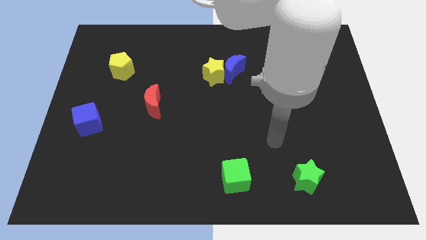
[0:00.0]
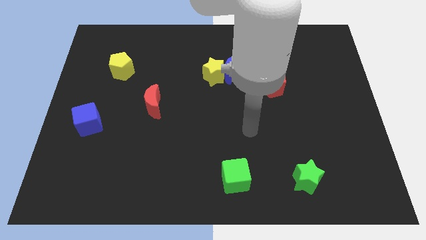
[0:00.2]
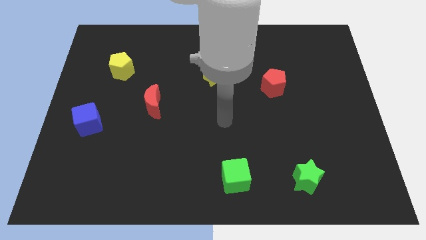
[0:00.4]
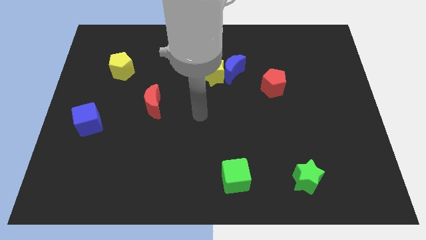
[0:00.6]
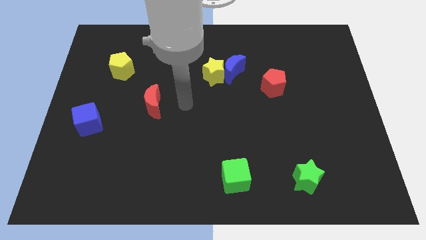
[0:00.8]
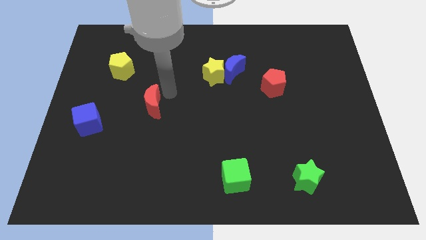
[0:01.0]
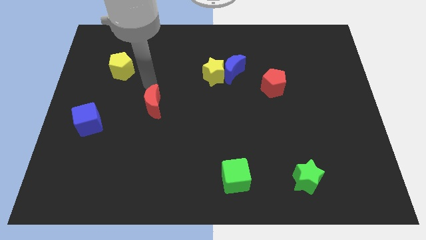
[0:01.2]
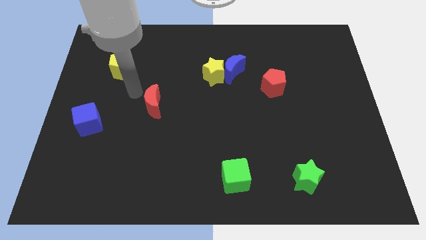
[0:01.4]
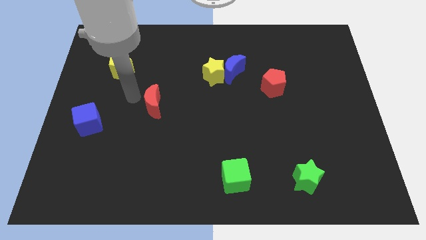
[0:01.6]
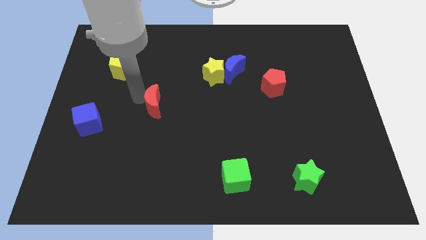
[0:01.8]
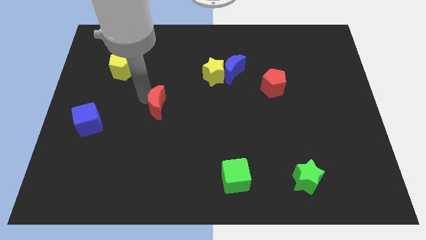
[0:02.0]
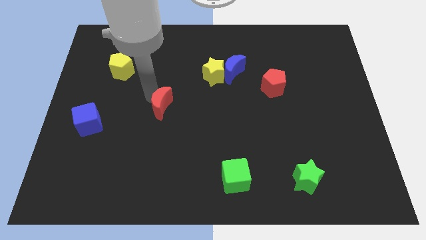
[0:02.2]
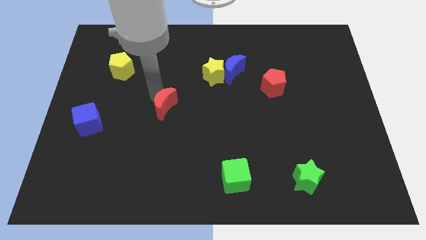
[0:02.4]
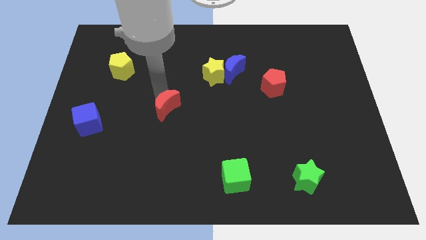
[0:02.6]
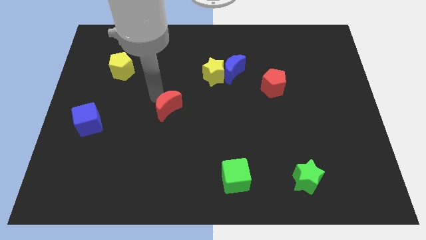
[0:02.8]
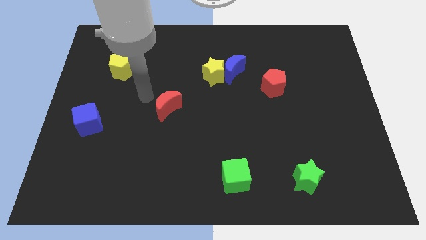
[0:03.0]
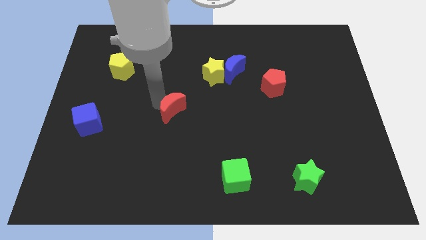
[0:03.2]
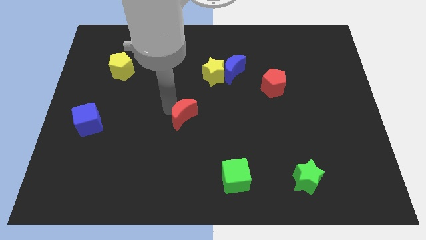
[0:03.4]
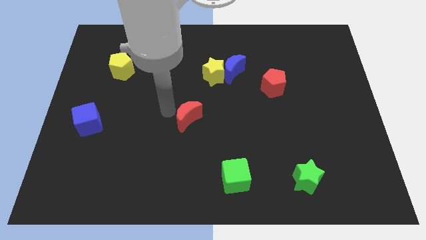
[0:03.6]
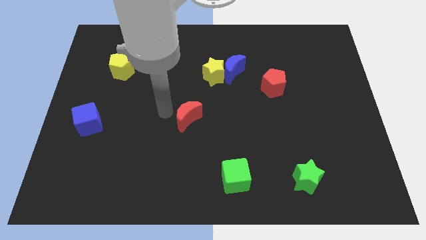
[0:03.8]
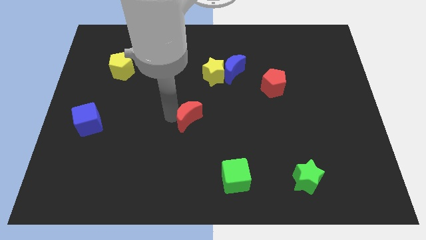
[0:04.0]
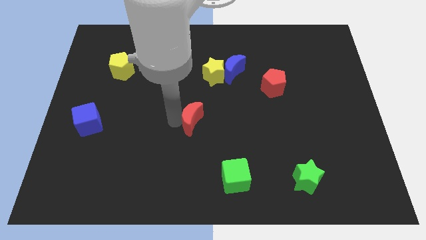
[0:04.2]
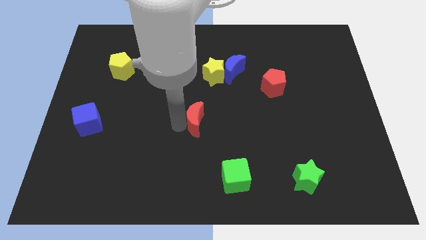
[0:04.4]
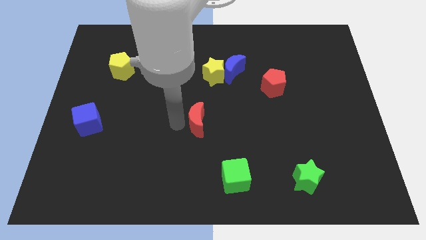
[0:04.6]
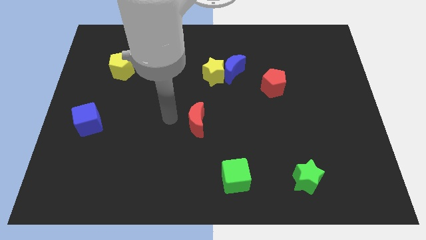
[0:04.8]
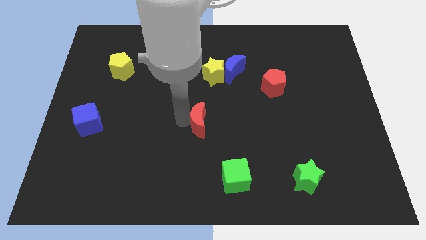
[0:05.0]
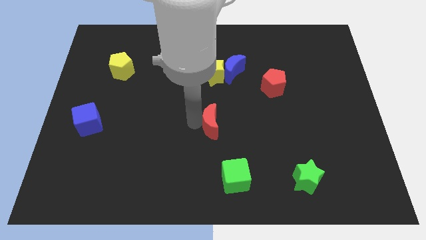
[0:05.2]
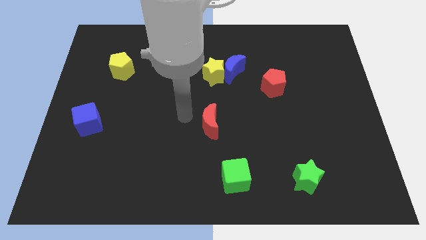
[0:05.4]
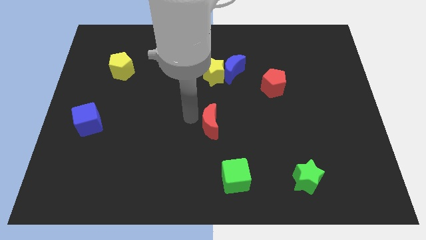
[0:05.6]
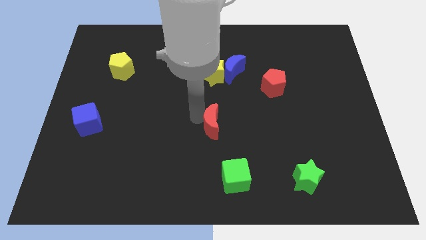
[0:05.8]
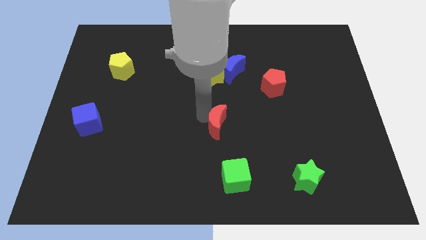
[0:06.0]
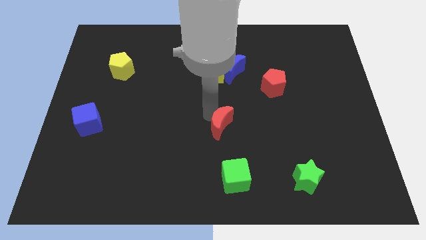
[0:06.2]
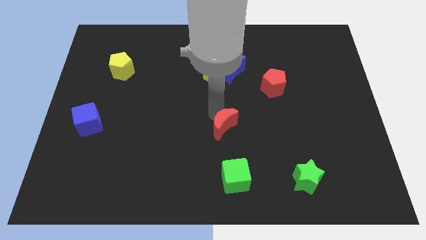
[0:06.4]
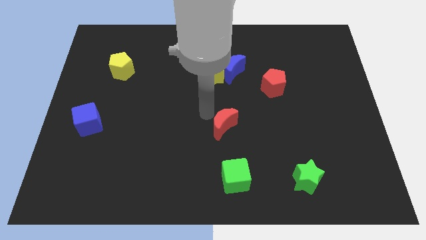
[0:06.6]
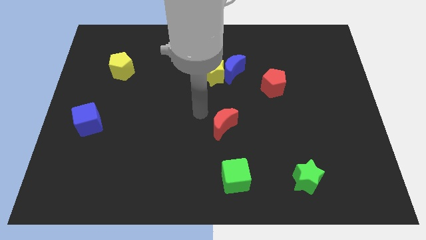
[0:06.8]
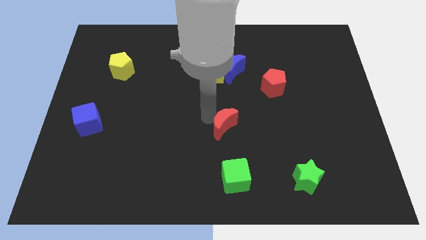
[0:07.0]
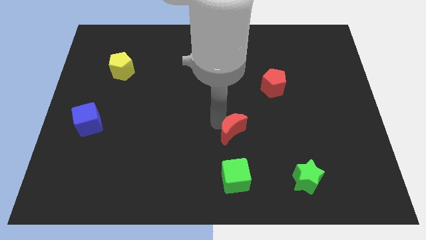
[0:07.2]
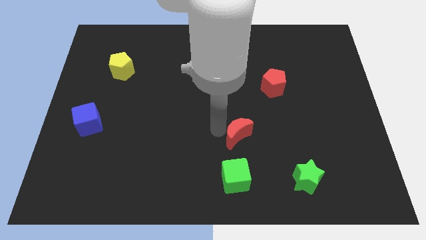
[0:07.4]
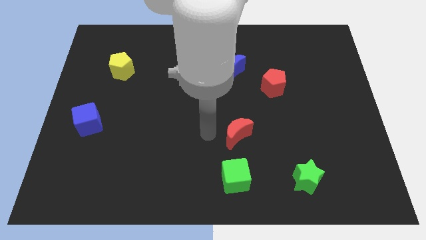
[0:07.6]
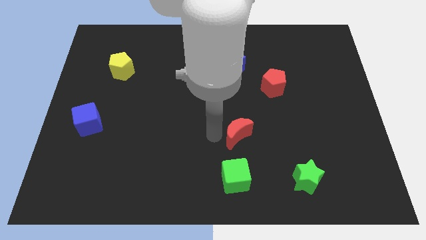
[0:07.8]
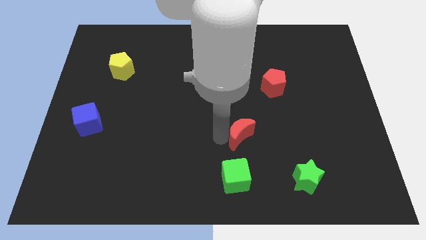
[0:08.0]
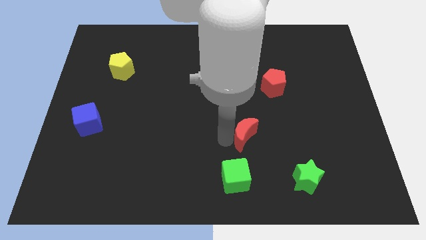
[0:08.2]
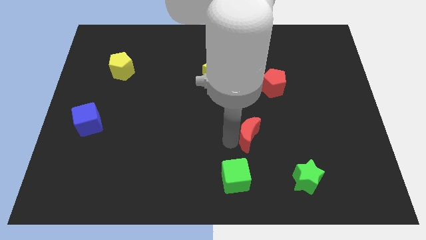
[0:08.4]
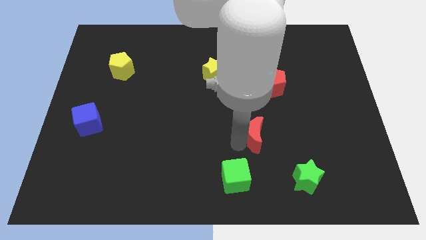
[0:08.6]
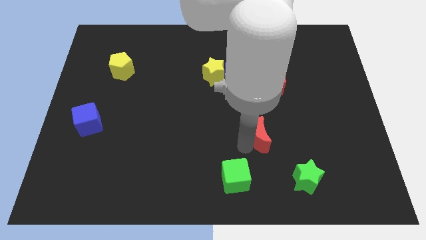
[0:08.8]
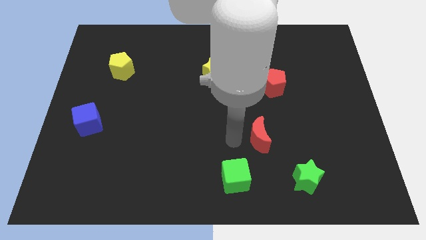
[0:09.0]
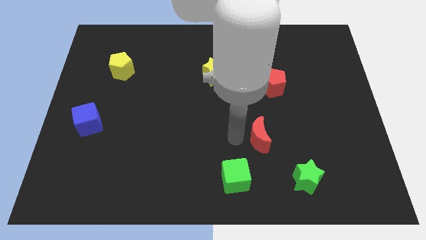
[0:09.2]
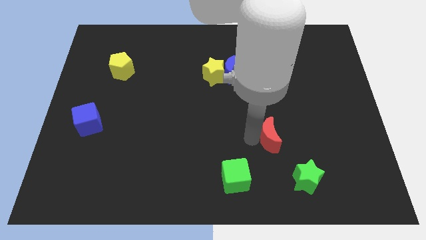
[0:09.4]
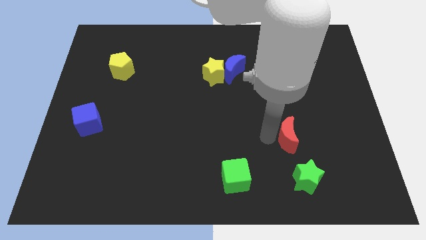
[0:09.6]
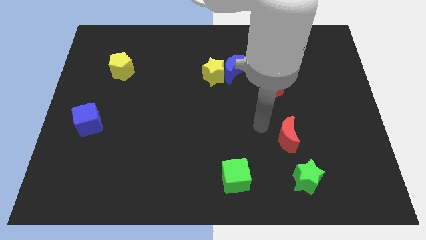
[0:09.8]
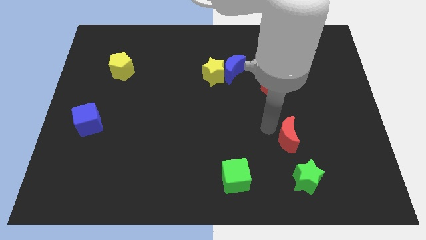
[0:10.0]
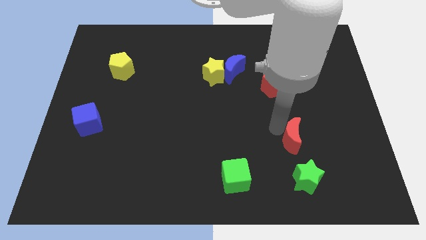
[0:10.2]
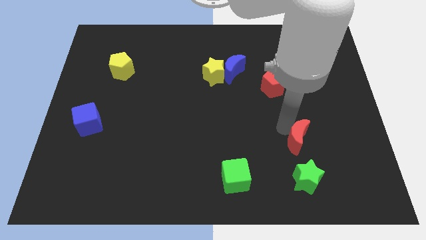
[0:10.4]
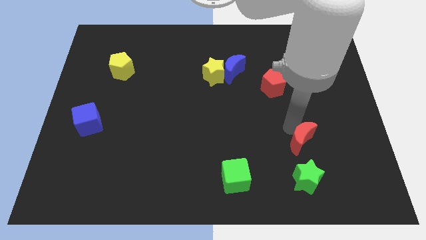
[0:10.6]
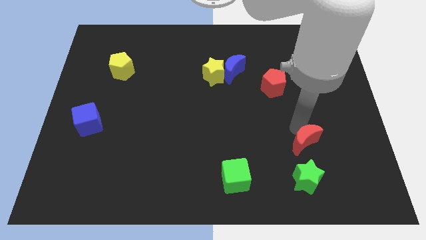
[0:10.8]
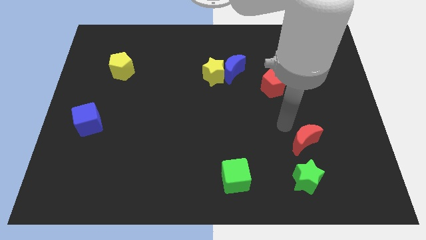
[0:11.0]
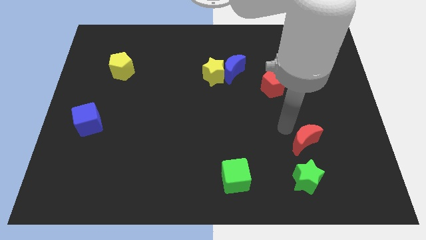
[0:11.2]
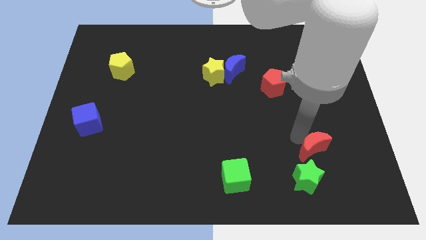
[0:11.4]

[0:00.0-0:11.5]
push the red moon to the top right of the green star

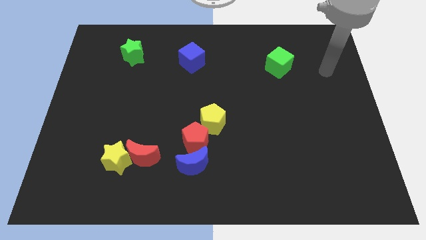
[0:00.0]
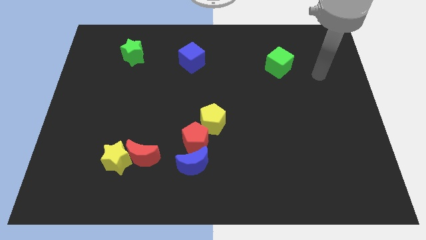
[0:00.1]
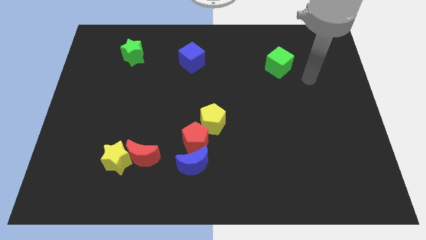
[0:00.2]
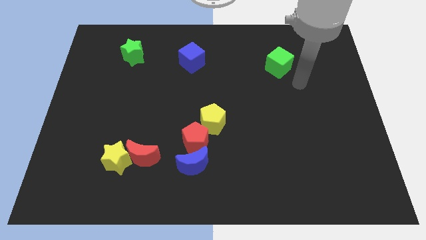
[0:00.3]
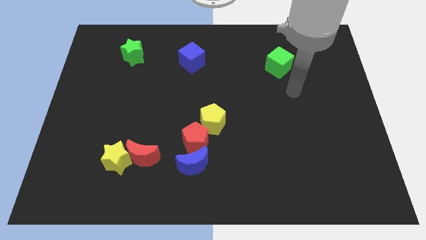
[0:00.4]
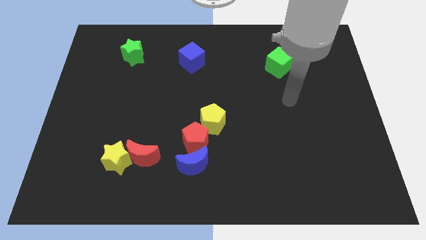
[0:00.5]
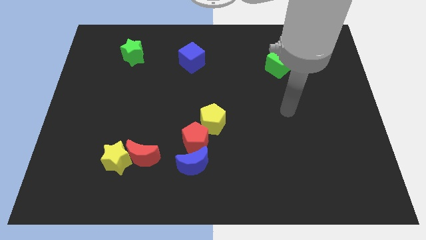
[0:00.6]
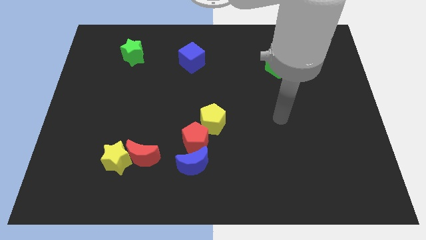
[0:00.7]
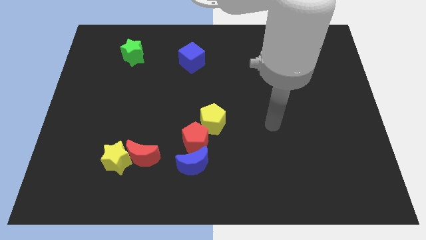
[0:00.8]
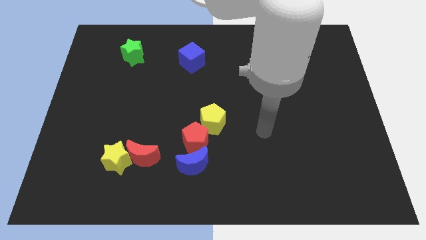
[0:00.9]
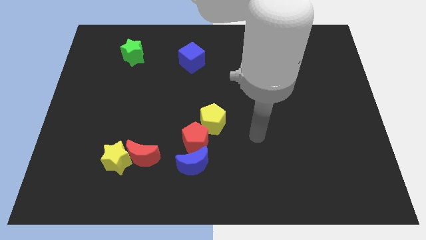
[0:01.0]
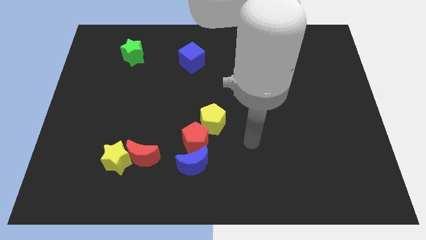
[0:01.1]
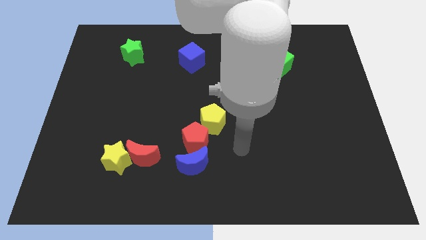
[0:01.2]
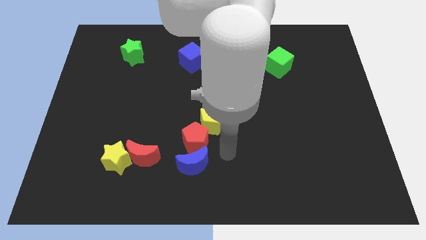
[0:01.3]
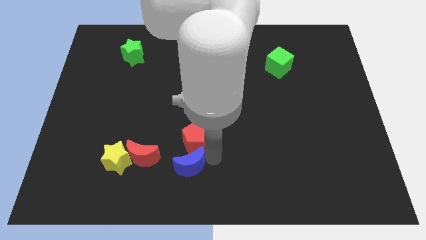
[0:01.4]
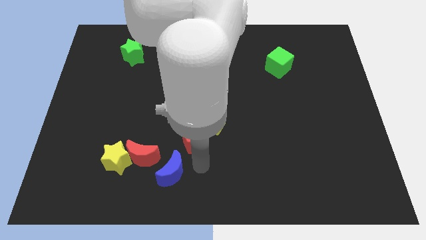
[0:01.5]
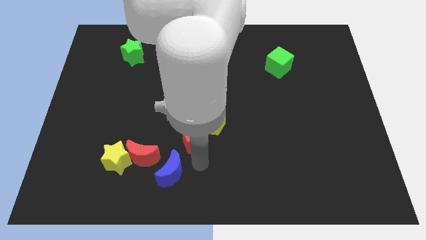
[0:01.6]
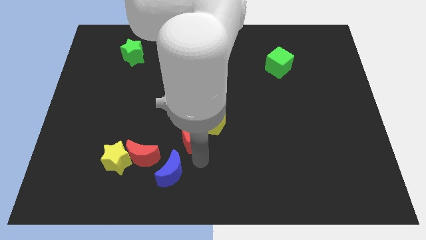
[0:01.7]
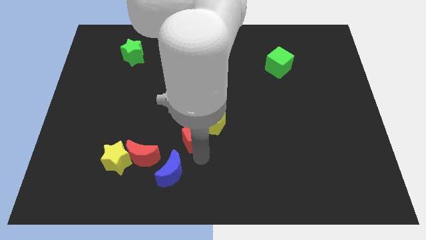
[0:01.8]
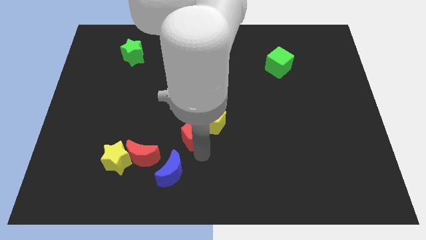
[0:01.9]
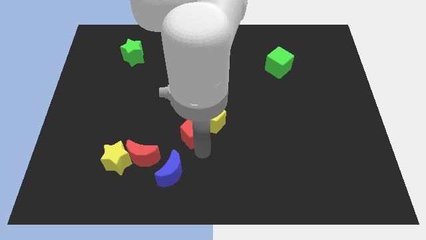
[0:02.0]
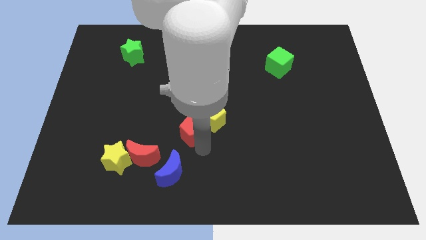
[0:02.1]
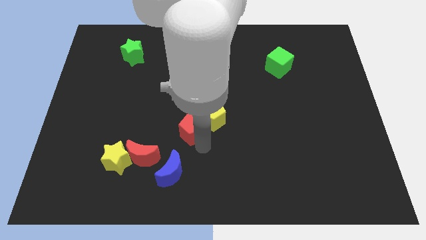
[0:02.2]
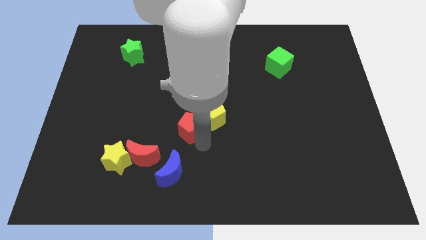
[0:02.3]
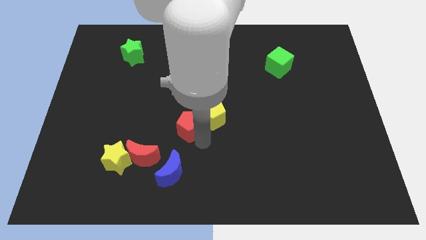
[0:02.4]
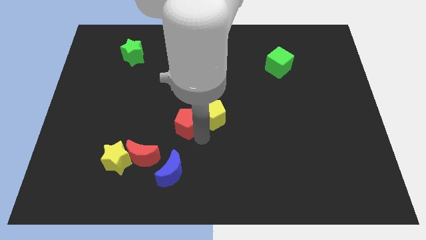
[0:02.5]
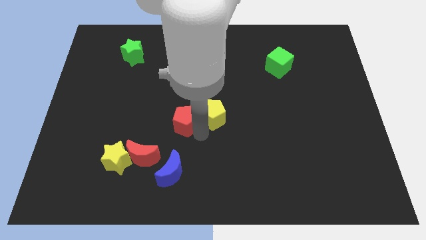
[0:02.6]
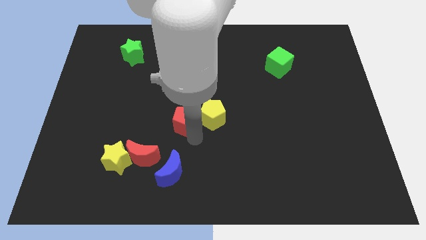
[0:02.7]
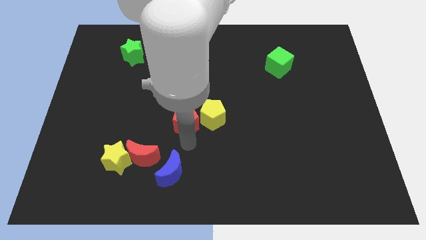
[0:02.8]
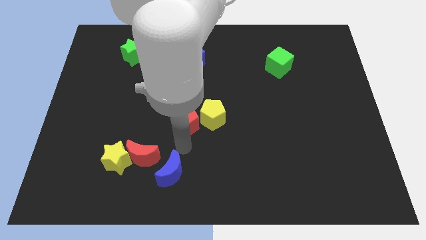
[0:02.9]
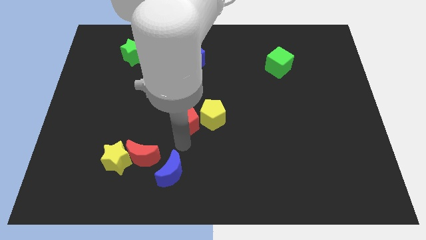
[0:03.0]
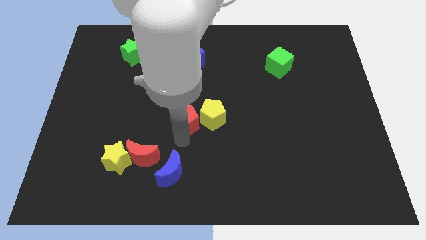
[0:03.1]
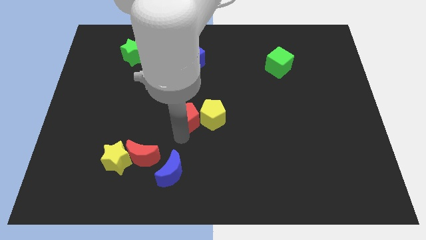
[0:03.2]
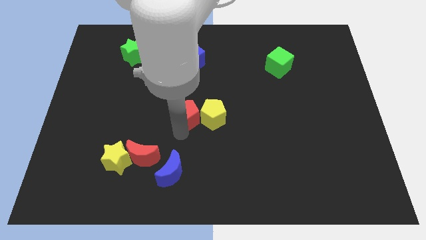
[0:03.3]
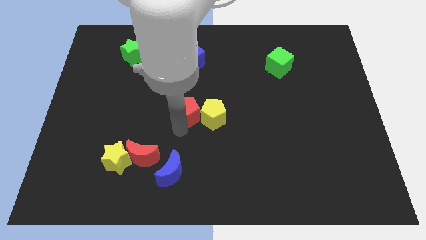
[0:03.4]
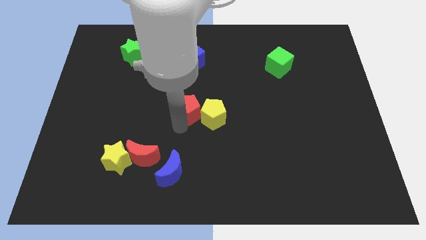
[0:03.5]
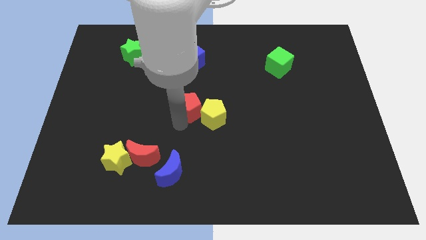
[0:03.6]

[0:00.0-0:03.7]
slide the red pentagon to the bottom side of the blue cube
